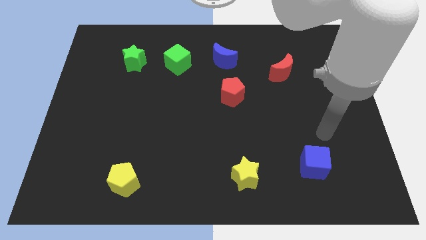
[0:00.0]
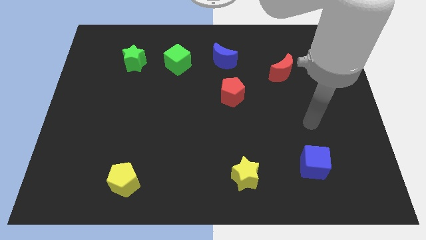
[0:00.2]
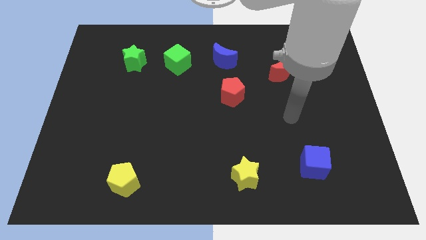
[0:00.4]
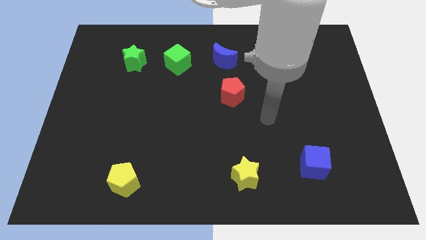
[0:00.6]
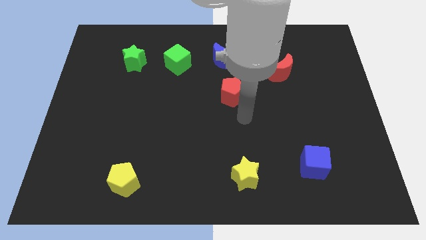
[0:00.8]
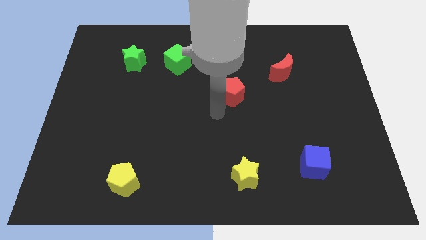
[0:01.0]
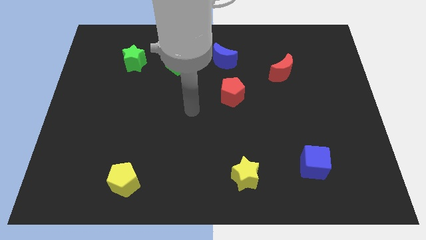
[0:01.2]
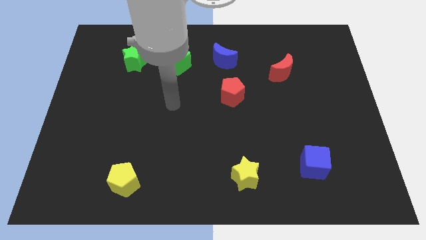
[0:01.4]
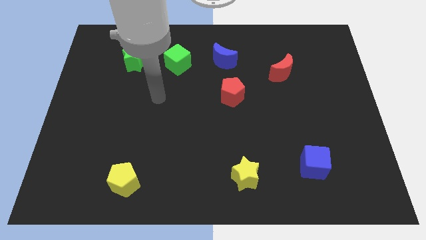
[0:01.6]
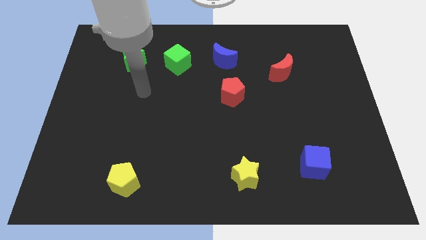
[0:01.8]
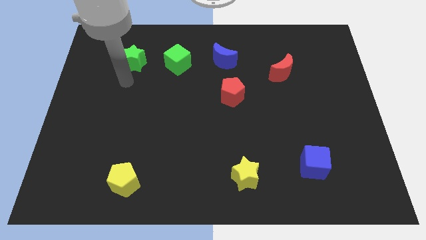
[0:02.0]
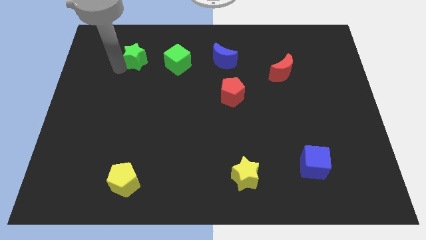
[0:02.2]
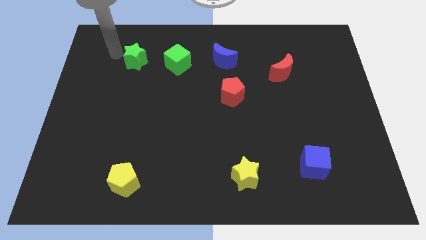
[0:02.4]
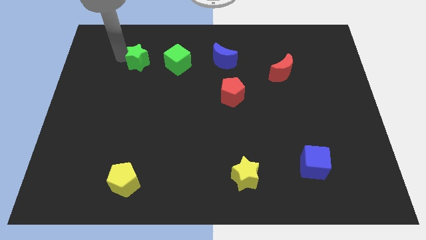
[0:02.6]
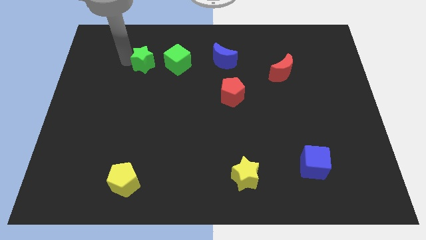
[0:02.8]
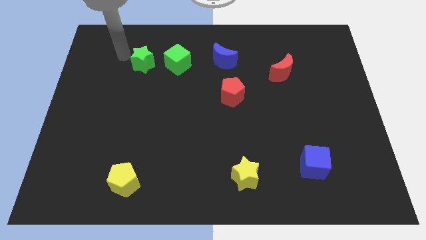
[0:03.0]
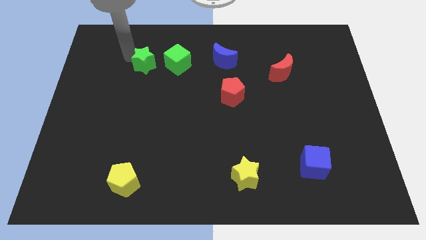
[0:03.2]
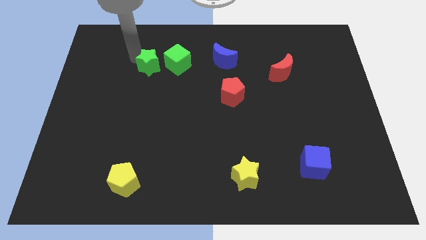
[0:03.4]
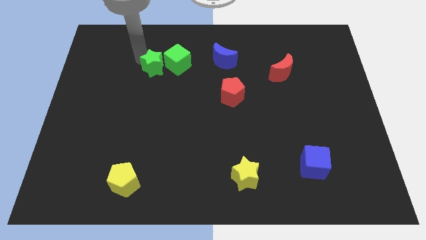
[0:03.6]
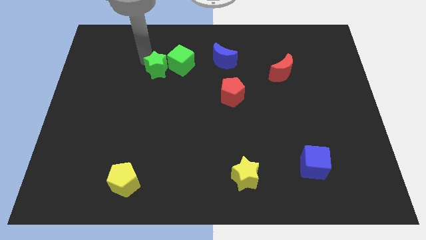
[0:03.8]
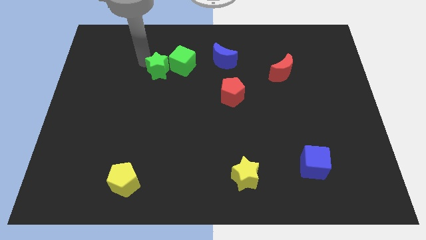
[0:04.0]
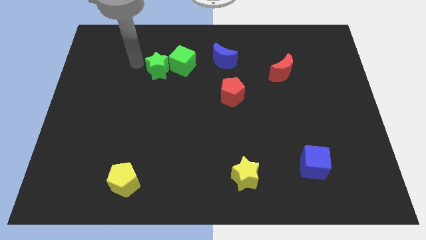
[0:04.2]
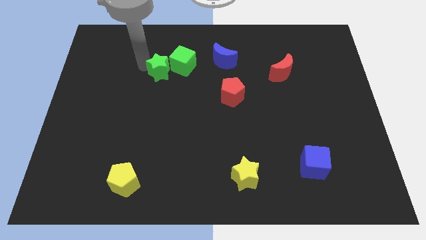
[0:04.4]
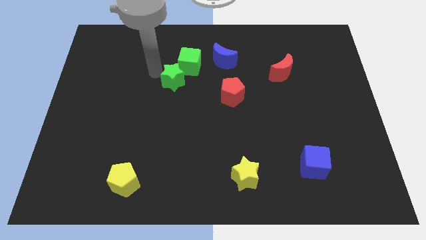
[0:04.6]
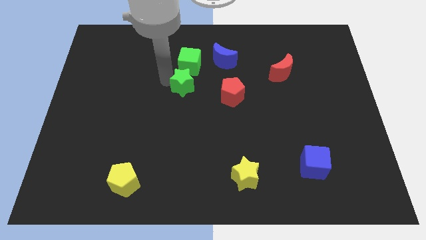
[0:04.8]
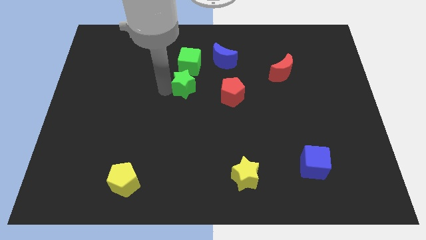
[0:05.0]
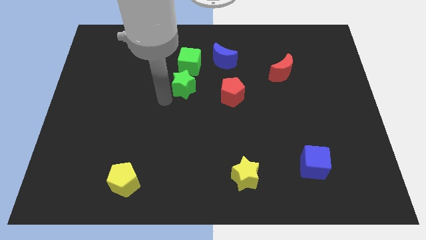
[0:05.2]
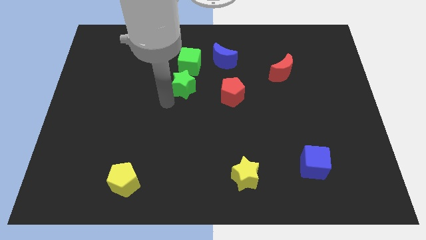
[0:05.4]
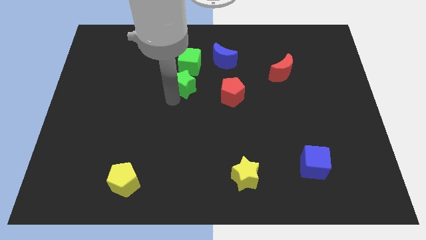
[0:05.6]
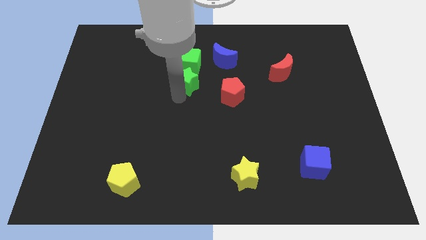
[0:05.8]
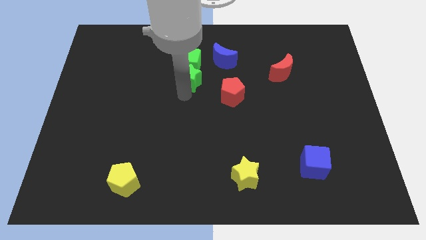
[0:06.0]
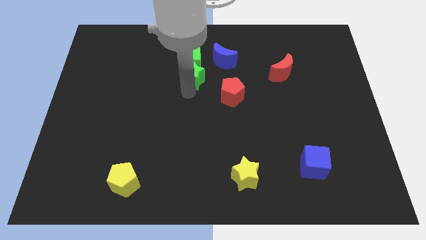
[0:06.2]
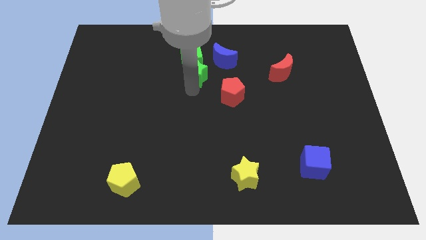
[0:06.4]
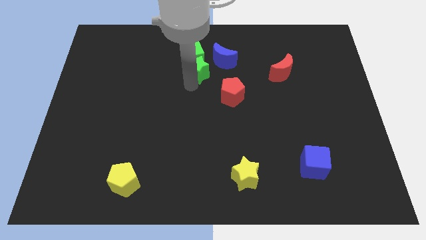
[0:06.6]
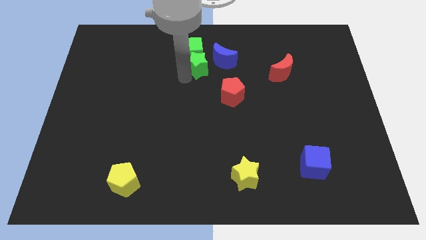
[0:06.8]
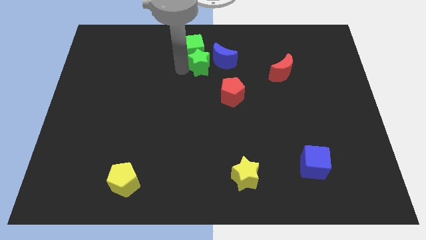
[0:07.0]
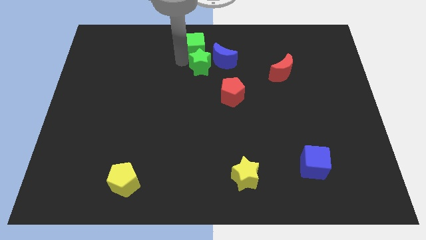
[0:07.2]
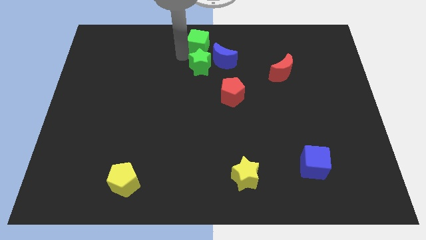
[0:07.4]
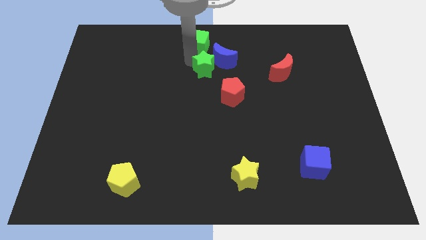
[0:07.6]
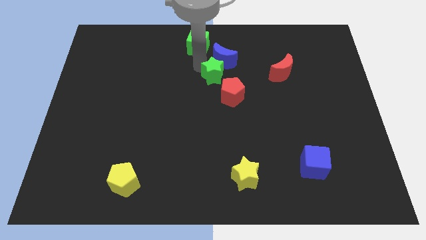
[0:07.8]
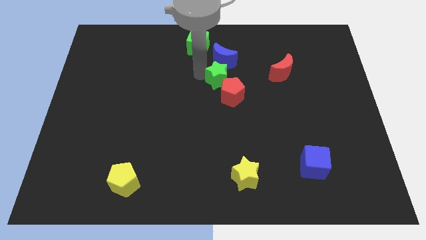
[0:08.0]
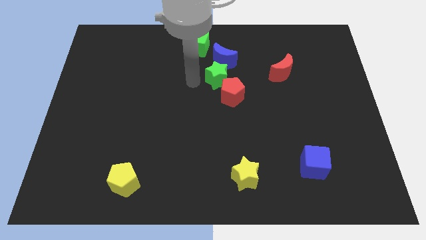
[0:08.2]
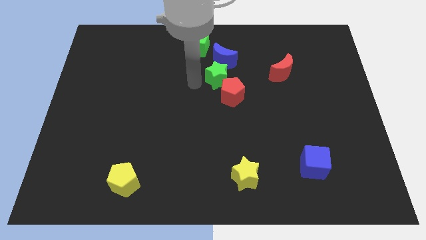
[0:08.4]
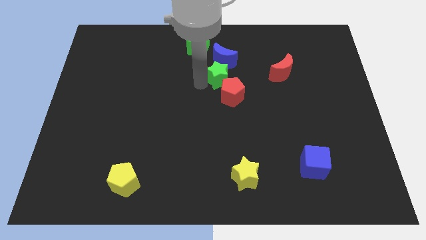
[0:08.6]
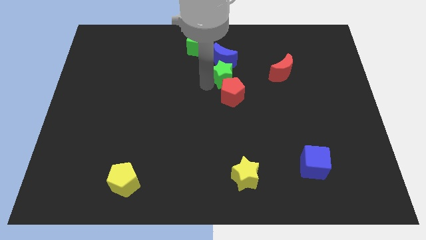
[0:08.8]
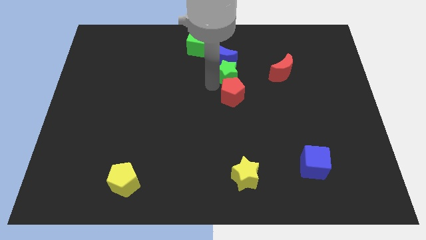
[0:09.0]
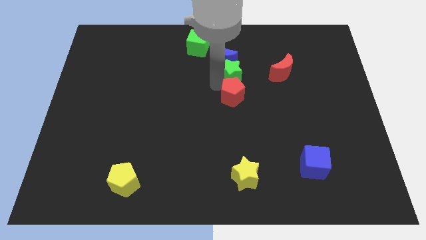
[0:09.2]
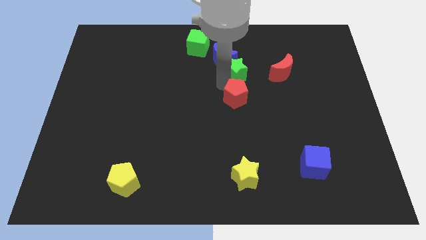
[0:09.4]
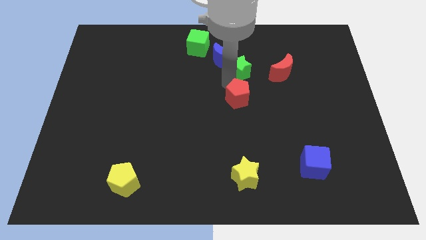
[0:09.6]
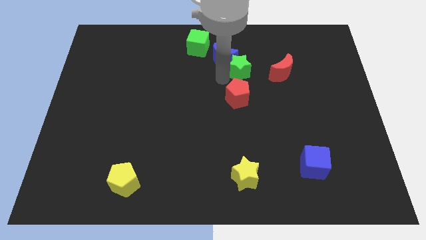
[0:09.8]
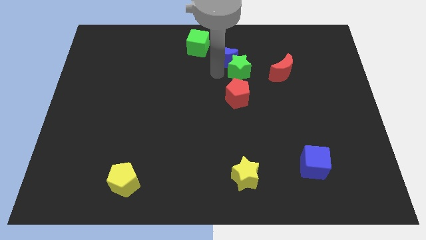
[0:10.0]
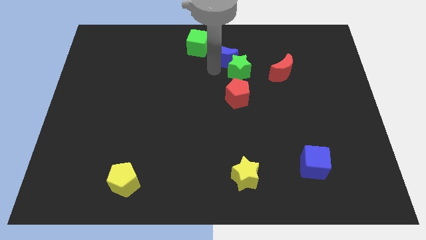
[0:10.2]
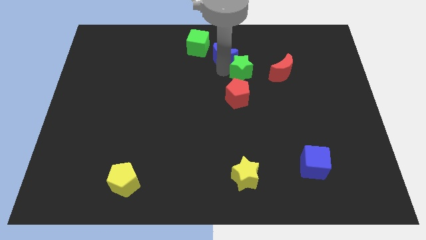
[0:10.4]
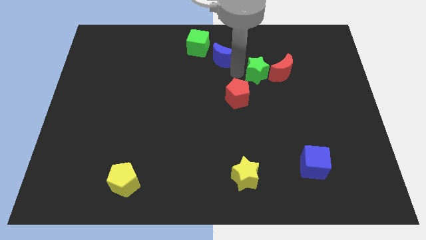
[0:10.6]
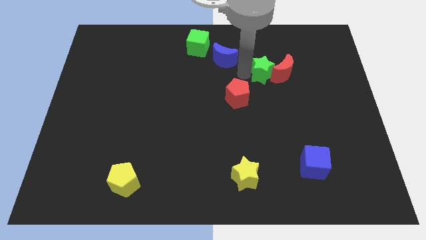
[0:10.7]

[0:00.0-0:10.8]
put the green star to the red moon

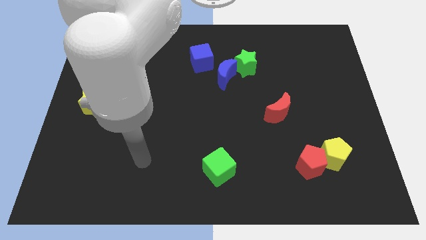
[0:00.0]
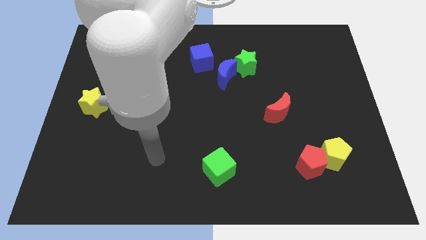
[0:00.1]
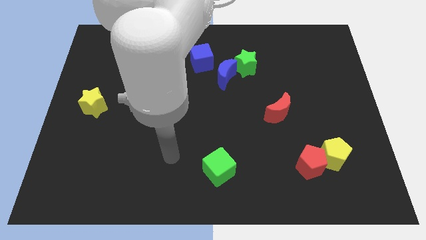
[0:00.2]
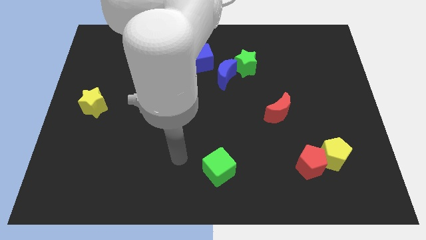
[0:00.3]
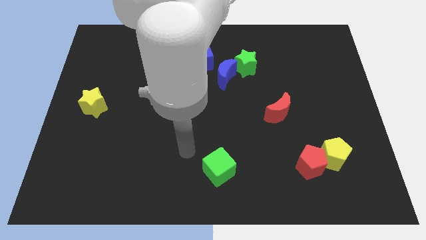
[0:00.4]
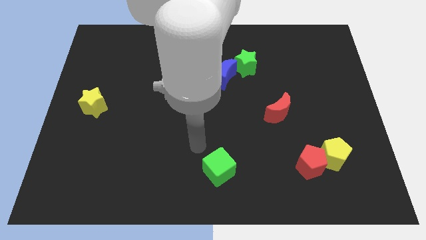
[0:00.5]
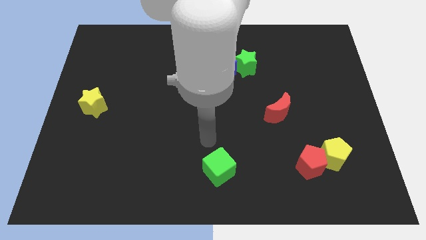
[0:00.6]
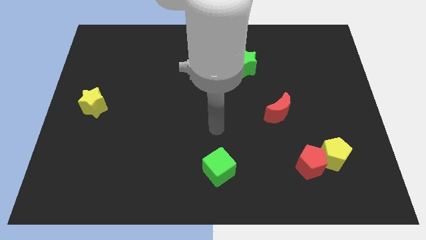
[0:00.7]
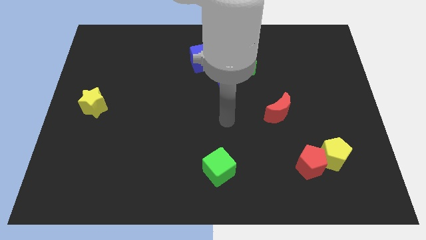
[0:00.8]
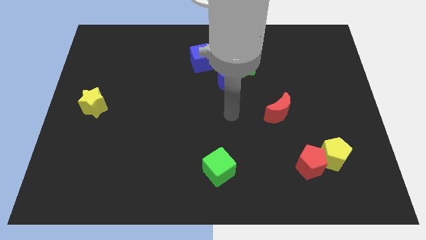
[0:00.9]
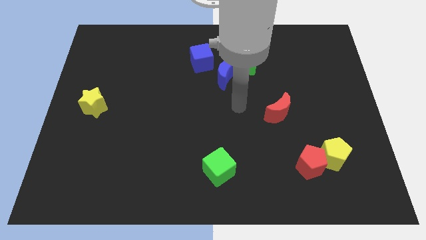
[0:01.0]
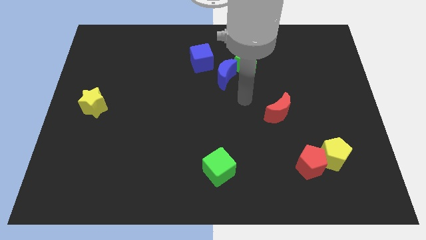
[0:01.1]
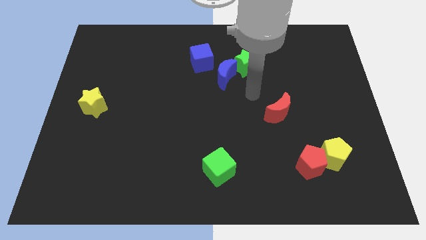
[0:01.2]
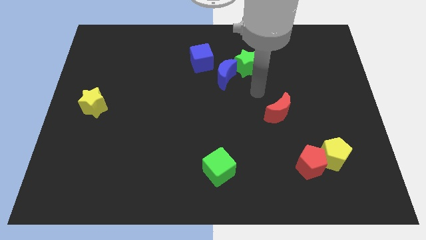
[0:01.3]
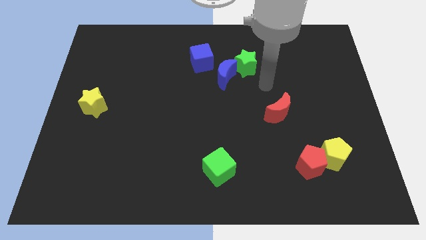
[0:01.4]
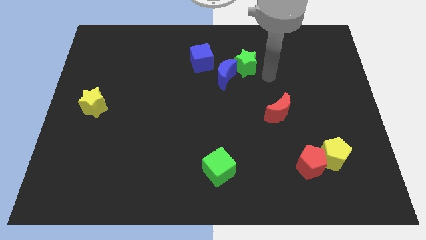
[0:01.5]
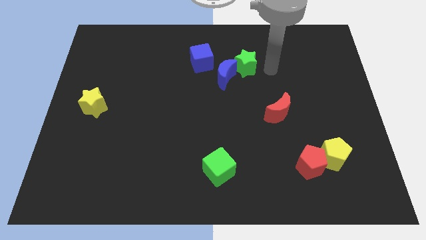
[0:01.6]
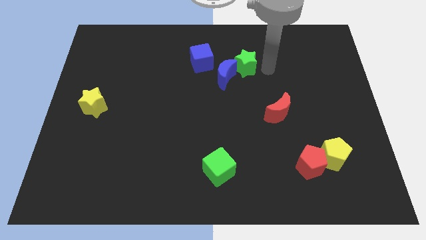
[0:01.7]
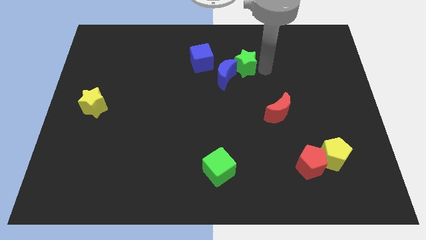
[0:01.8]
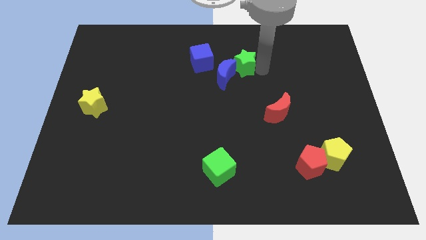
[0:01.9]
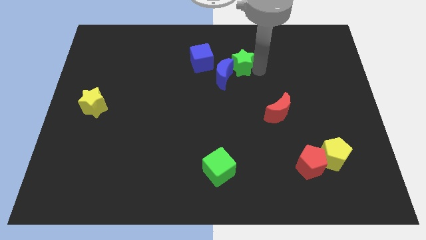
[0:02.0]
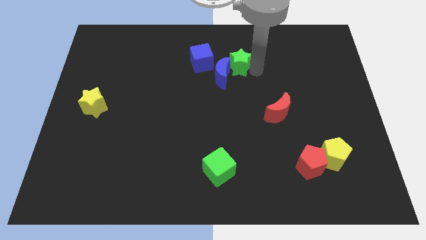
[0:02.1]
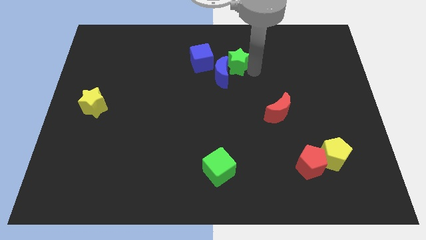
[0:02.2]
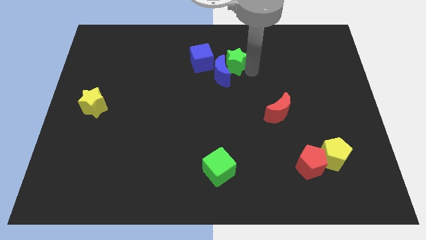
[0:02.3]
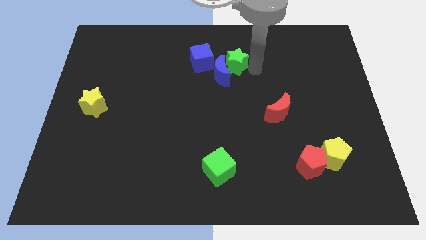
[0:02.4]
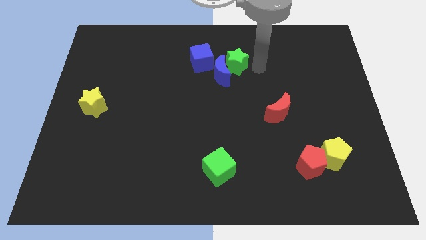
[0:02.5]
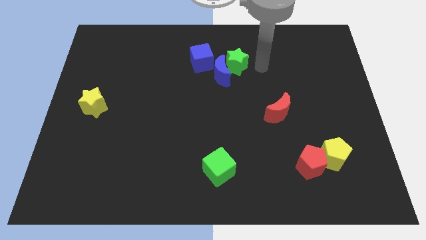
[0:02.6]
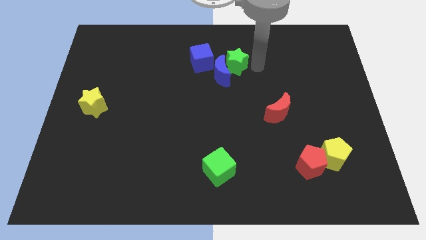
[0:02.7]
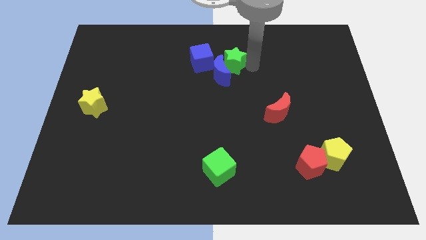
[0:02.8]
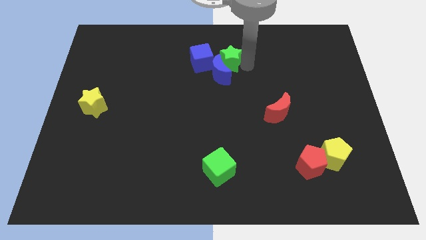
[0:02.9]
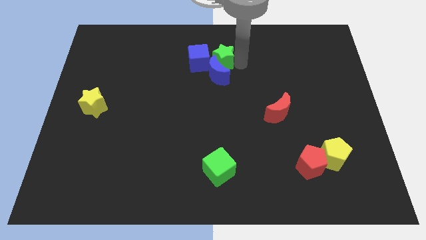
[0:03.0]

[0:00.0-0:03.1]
move the green star close to the blue cube
